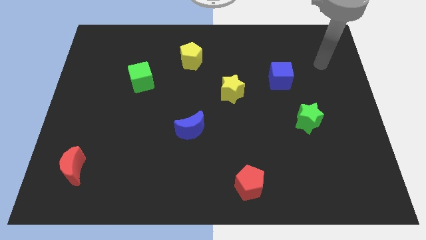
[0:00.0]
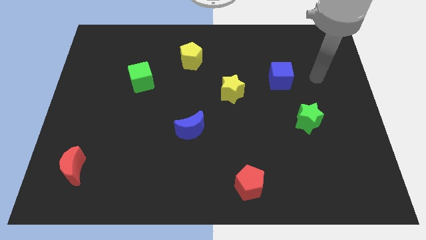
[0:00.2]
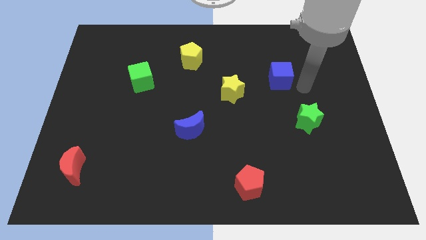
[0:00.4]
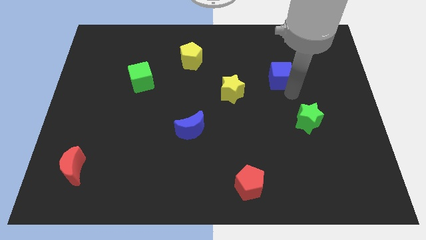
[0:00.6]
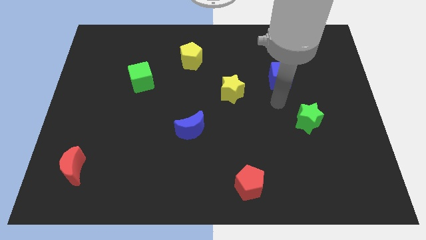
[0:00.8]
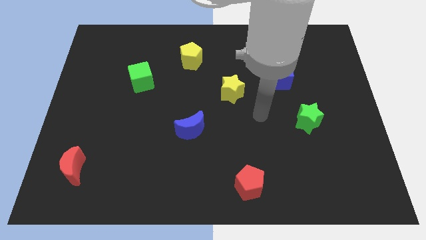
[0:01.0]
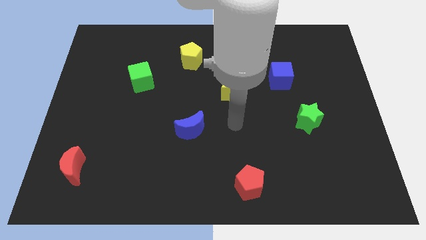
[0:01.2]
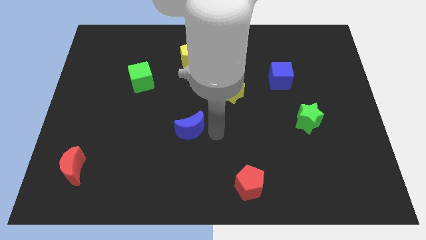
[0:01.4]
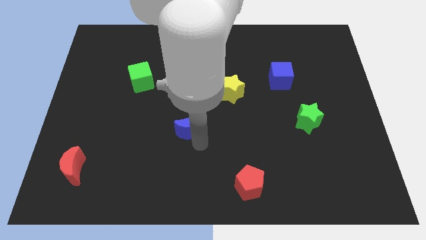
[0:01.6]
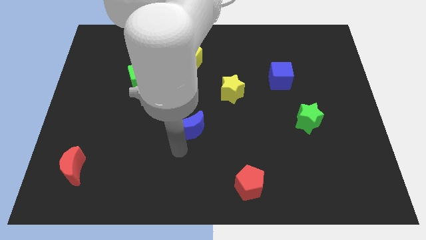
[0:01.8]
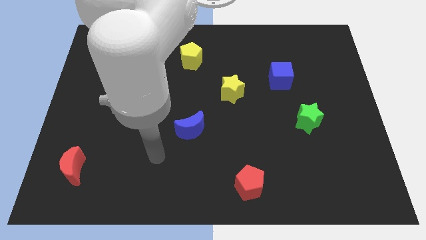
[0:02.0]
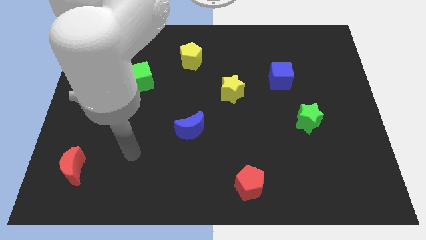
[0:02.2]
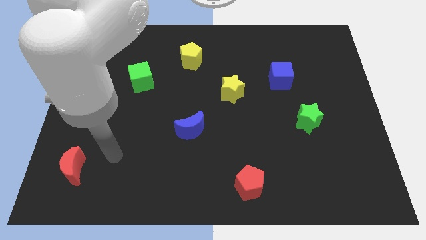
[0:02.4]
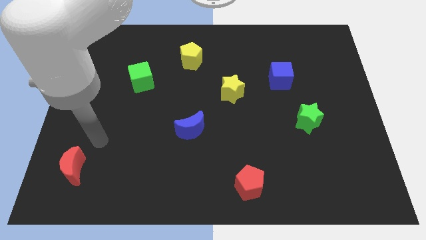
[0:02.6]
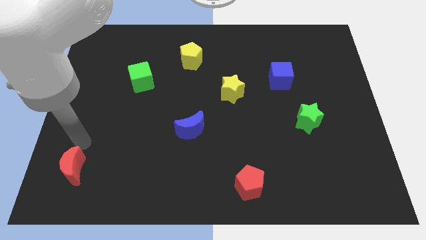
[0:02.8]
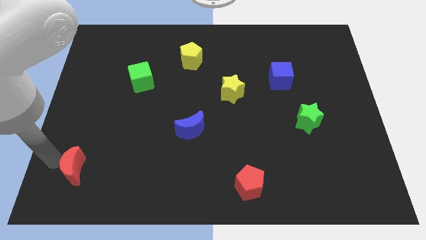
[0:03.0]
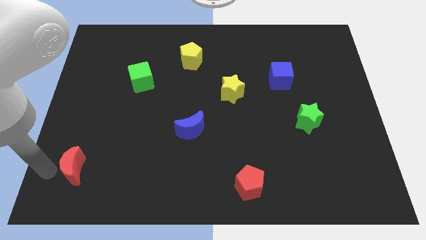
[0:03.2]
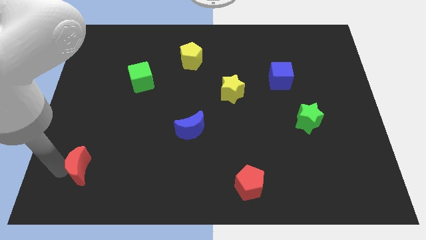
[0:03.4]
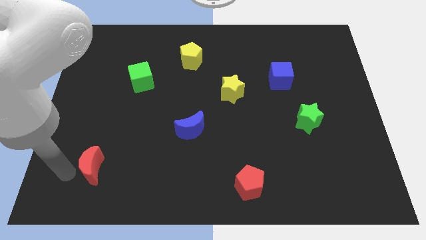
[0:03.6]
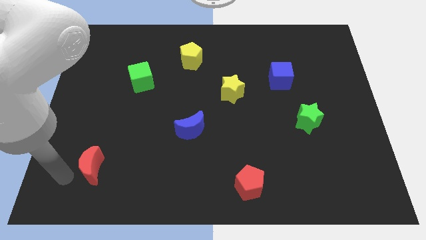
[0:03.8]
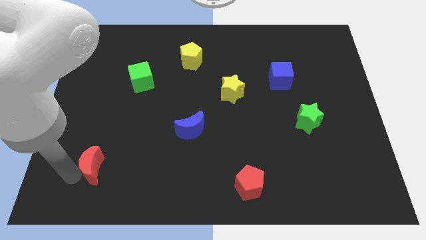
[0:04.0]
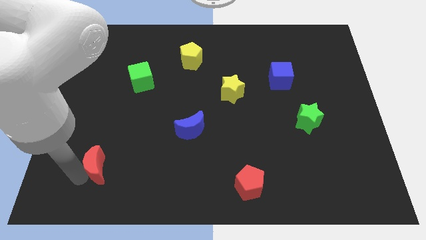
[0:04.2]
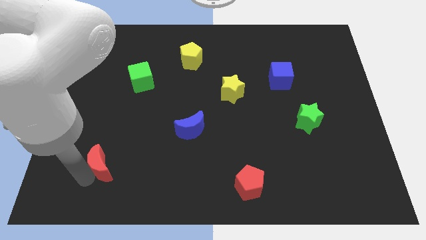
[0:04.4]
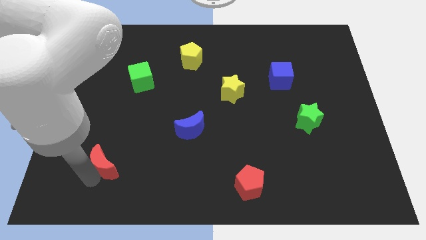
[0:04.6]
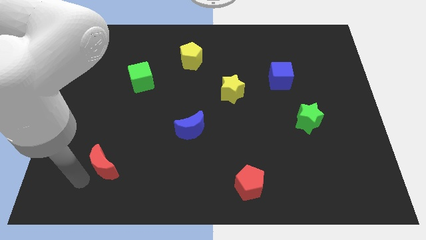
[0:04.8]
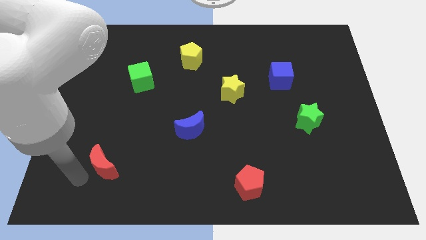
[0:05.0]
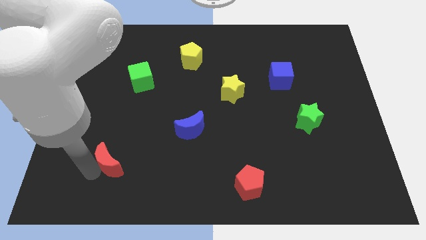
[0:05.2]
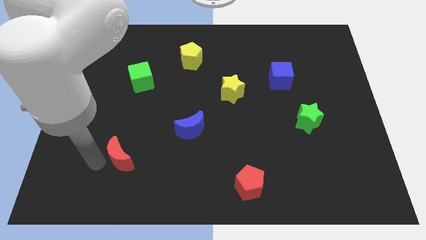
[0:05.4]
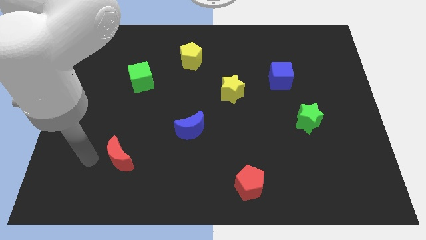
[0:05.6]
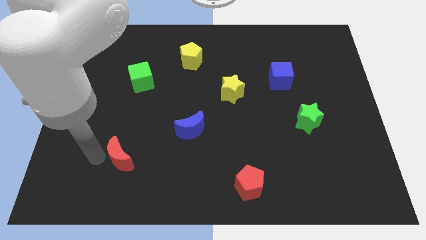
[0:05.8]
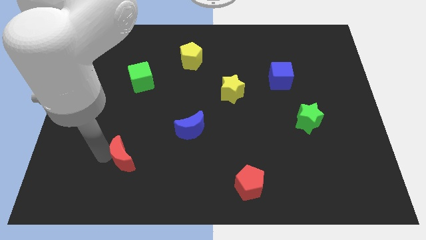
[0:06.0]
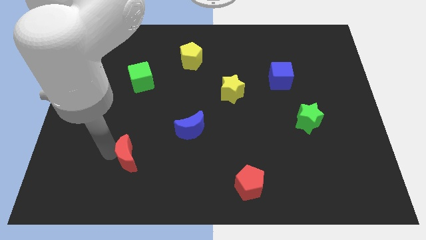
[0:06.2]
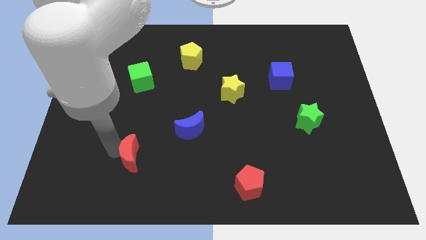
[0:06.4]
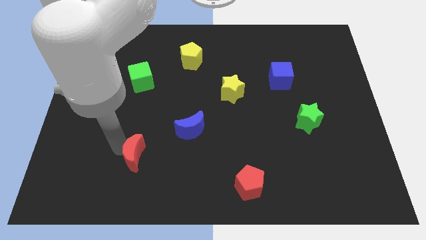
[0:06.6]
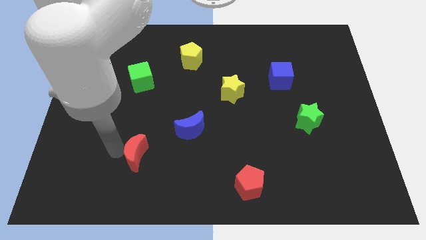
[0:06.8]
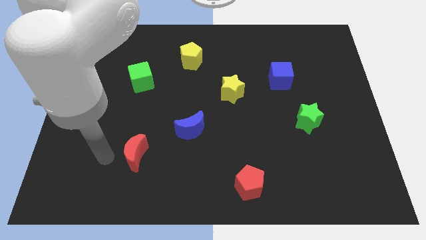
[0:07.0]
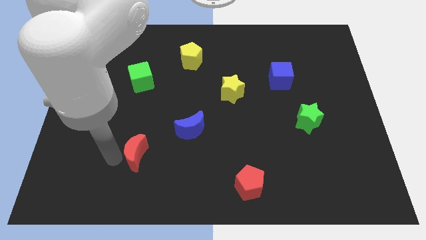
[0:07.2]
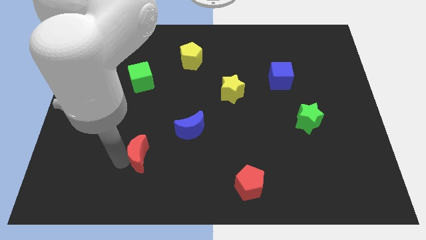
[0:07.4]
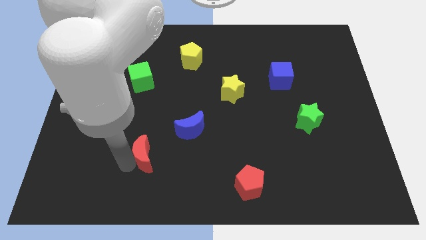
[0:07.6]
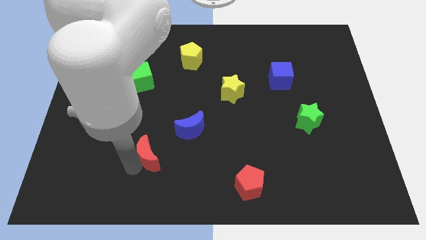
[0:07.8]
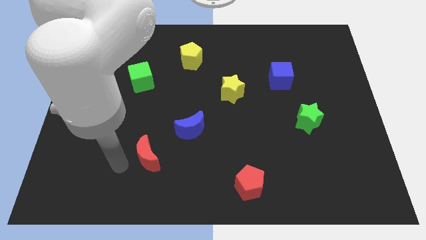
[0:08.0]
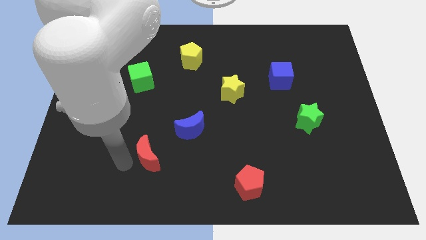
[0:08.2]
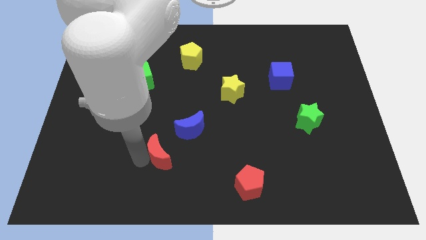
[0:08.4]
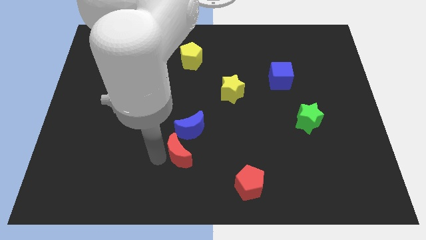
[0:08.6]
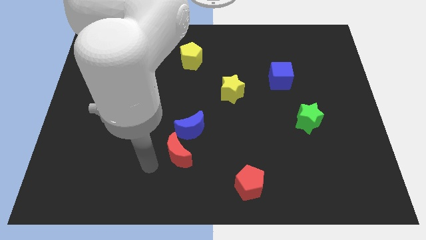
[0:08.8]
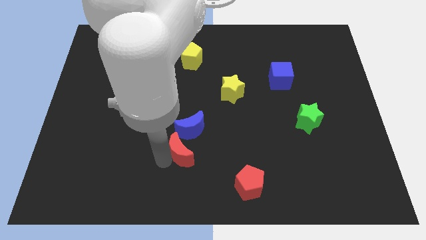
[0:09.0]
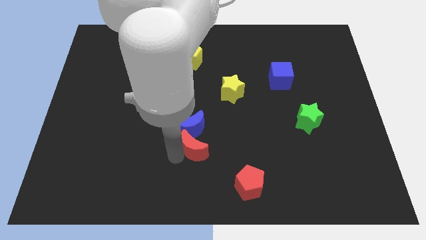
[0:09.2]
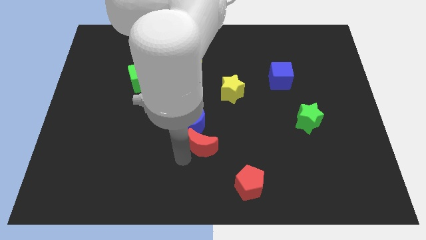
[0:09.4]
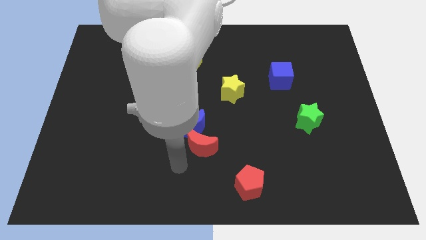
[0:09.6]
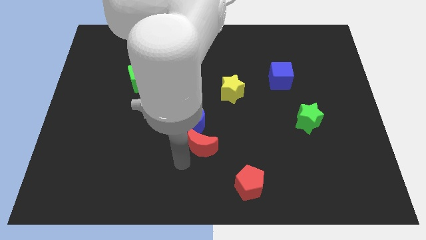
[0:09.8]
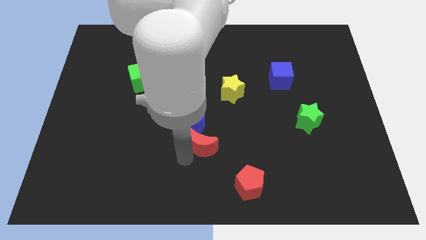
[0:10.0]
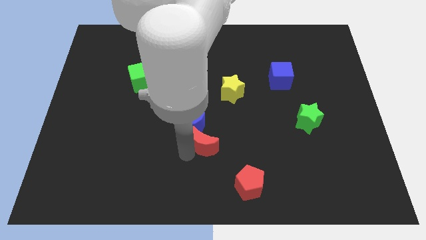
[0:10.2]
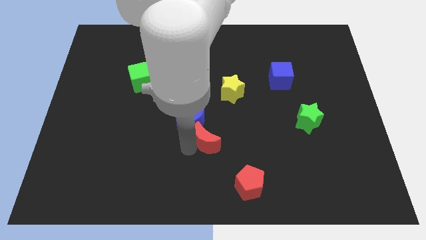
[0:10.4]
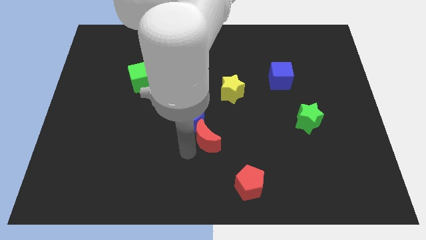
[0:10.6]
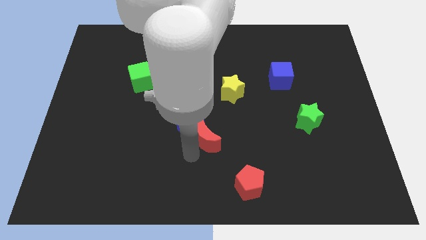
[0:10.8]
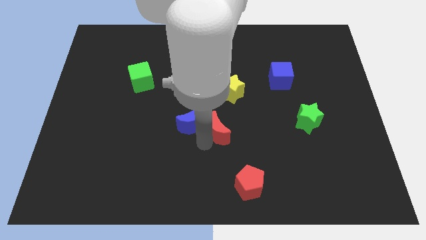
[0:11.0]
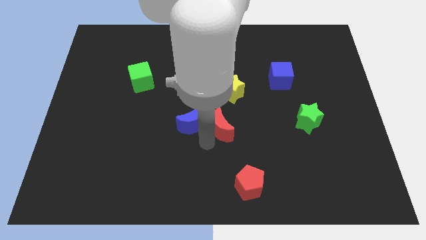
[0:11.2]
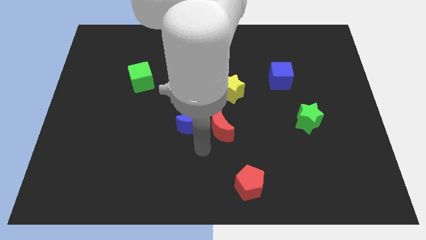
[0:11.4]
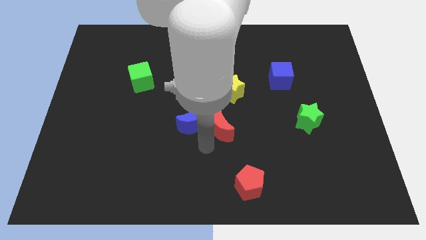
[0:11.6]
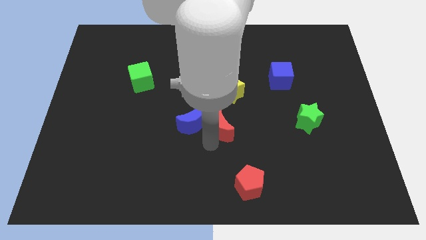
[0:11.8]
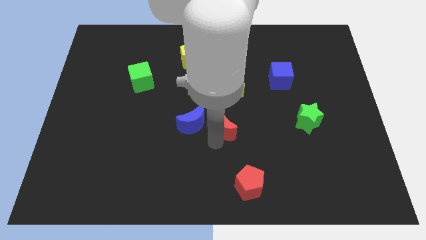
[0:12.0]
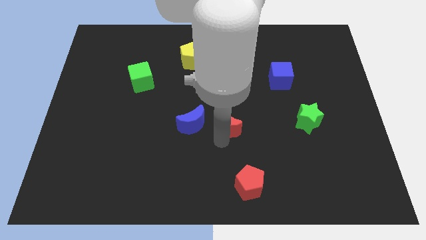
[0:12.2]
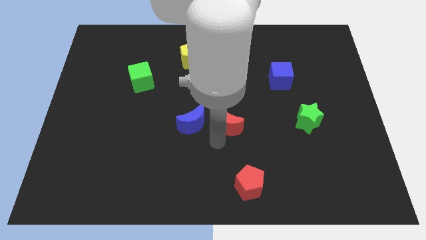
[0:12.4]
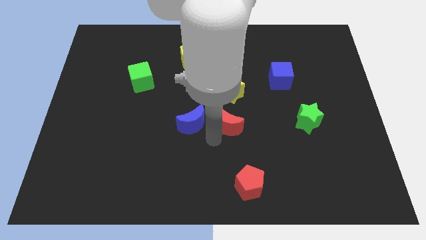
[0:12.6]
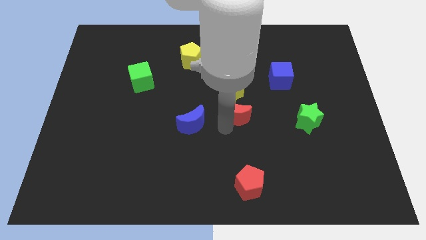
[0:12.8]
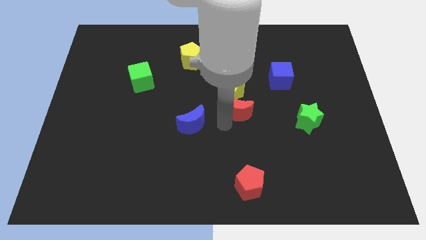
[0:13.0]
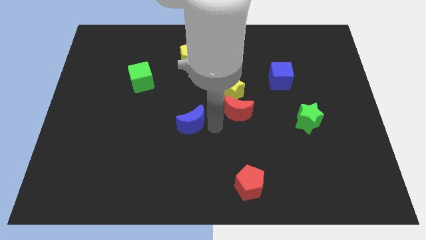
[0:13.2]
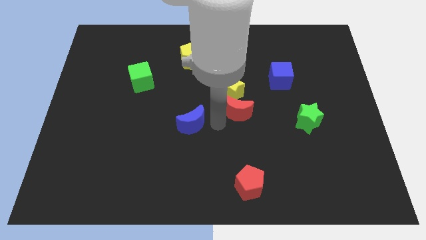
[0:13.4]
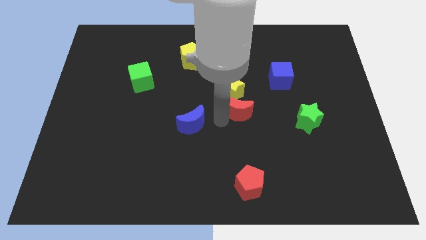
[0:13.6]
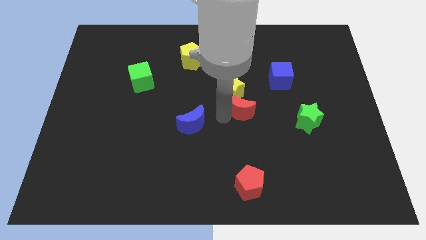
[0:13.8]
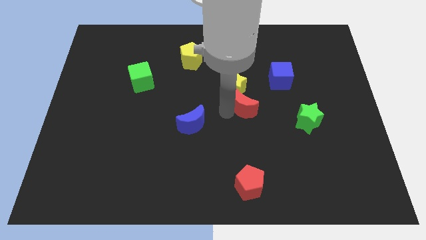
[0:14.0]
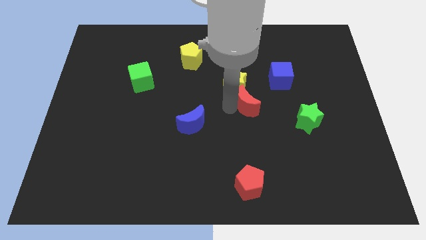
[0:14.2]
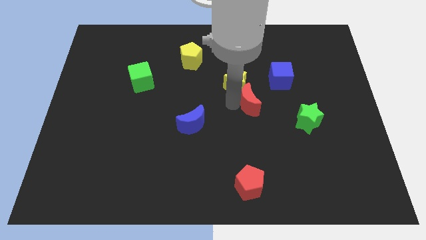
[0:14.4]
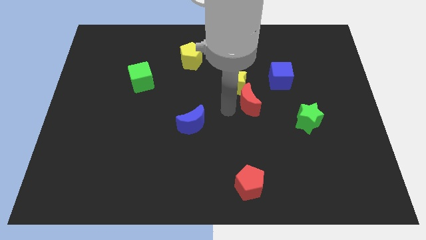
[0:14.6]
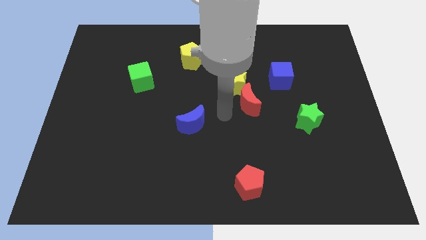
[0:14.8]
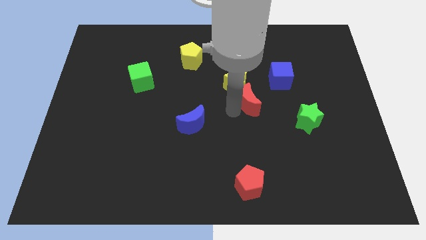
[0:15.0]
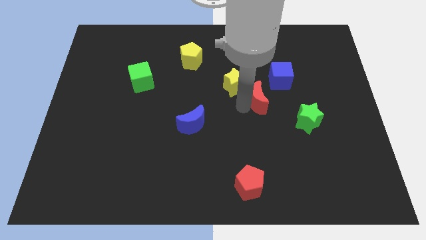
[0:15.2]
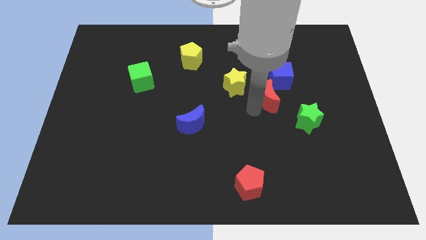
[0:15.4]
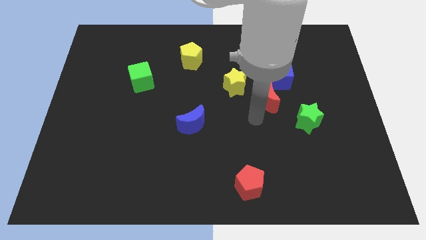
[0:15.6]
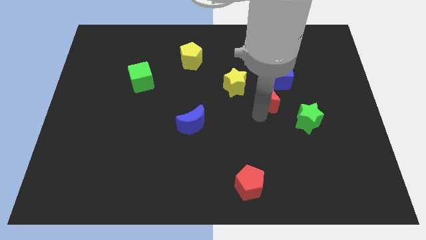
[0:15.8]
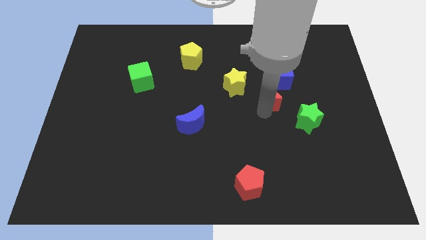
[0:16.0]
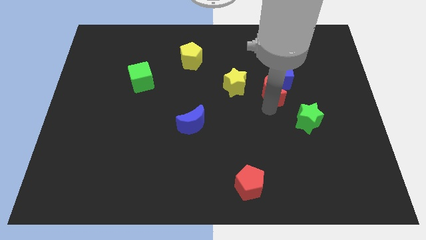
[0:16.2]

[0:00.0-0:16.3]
put the red moon towards the blue cube
